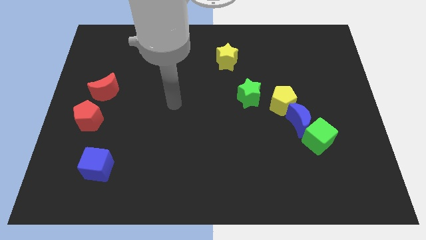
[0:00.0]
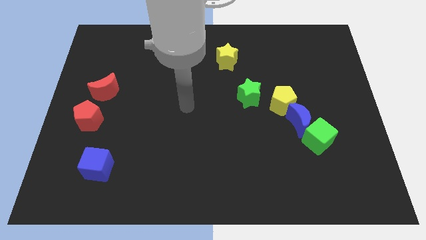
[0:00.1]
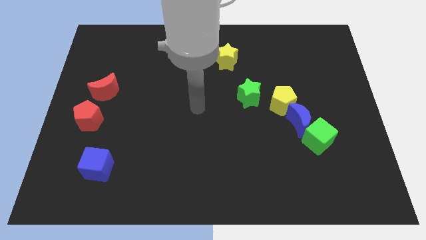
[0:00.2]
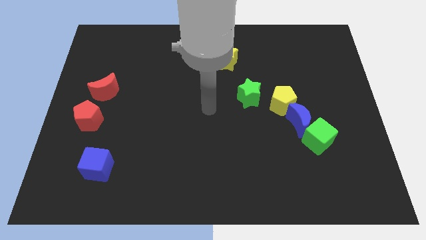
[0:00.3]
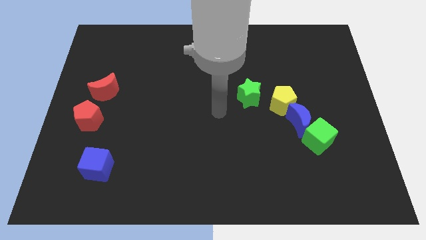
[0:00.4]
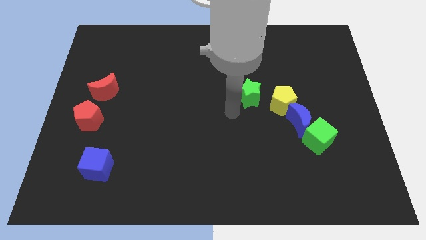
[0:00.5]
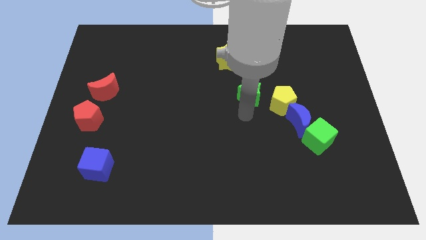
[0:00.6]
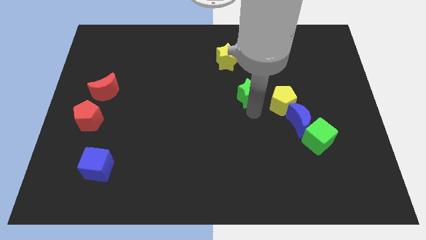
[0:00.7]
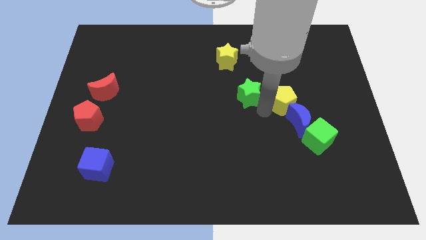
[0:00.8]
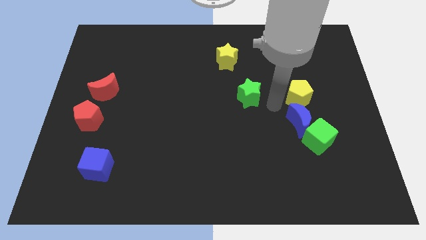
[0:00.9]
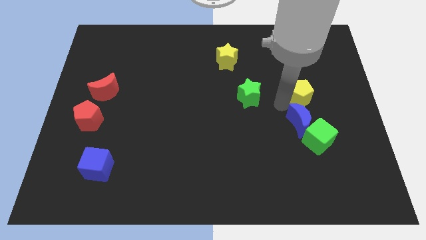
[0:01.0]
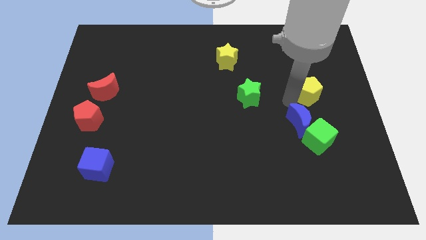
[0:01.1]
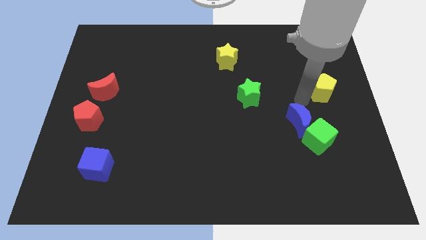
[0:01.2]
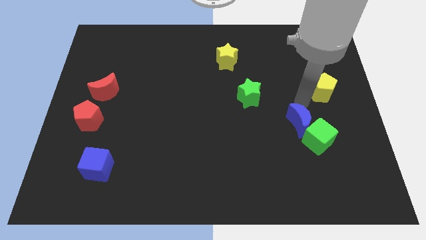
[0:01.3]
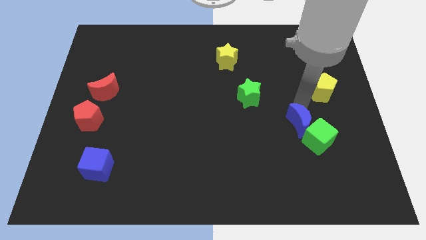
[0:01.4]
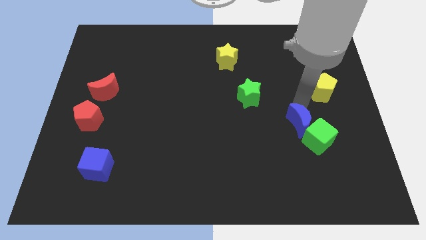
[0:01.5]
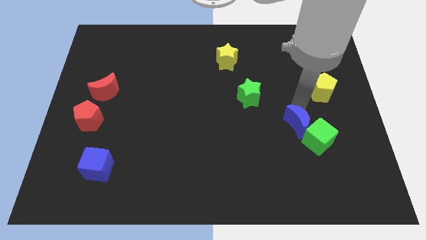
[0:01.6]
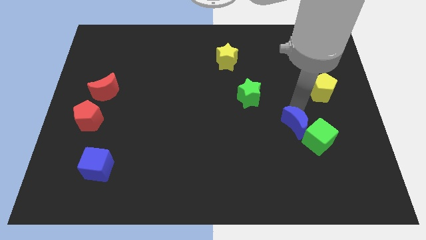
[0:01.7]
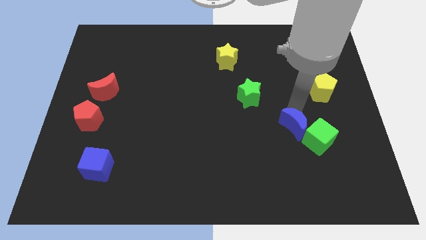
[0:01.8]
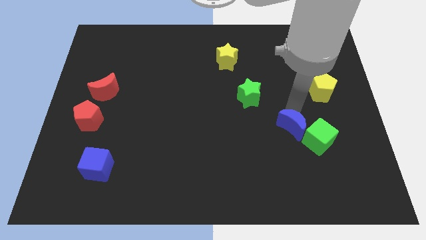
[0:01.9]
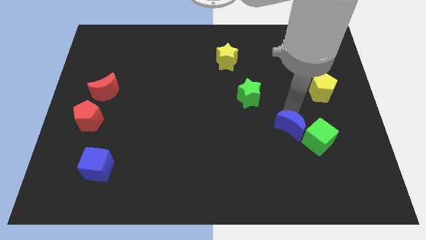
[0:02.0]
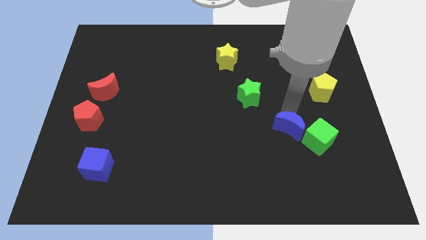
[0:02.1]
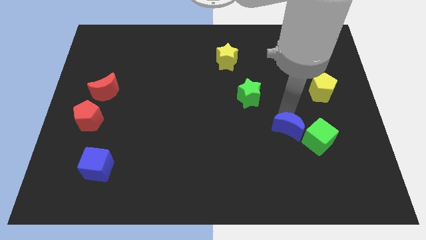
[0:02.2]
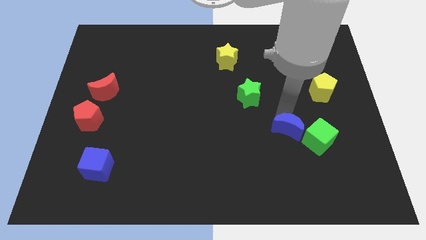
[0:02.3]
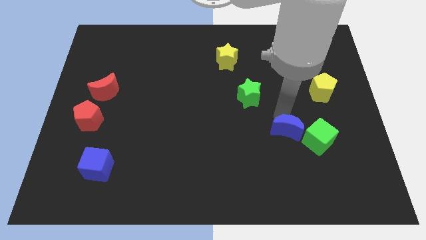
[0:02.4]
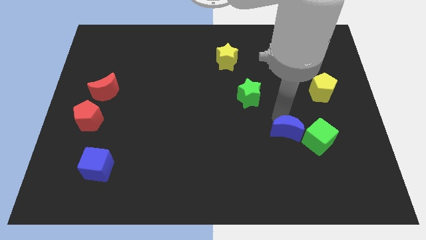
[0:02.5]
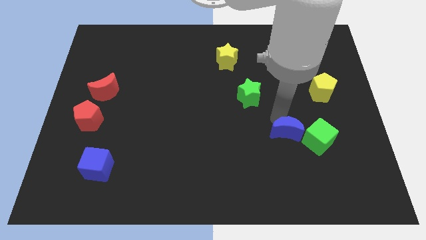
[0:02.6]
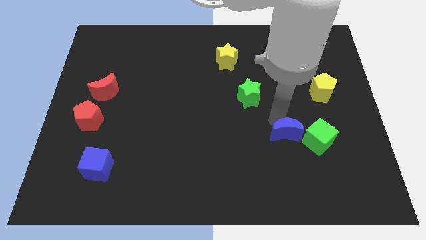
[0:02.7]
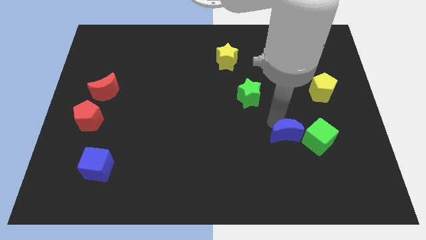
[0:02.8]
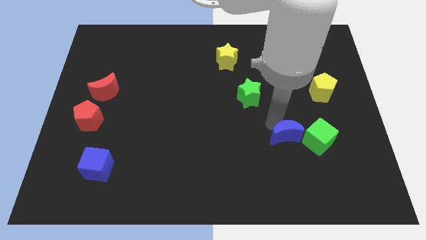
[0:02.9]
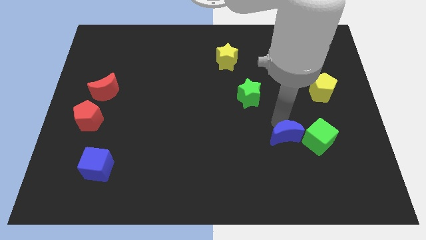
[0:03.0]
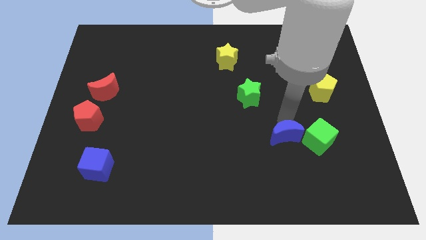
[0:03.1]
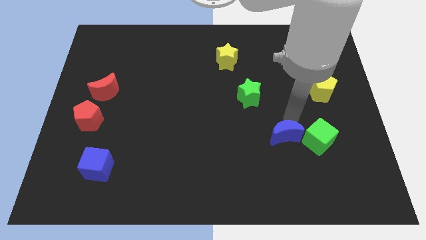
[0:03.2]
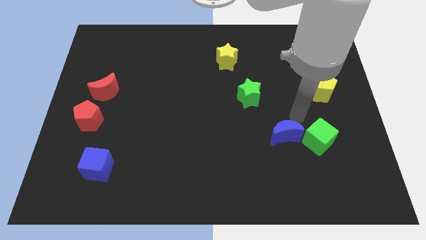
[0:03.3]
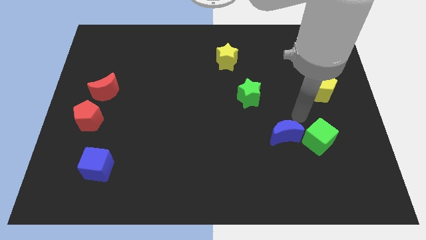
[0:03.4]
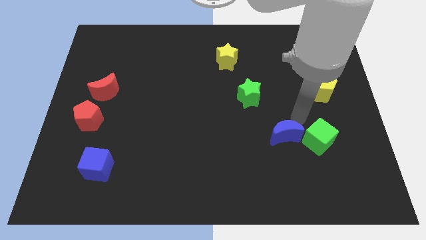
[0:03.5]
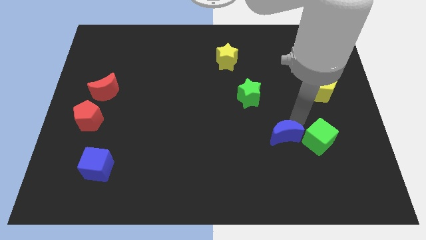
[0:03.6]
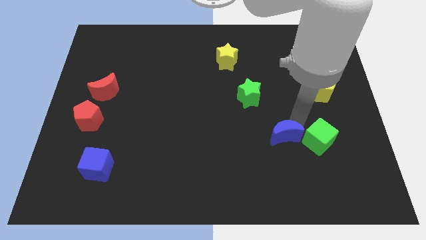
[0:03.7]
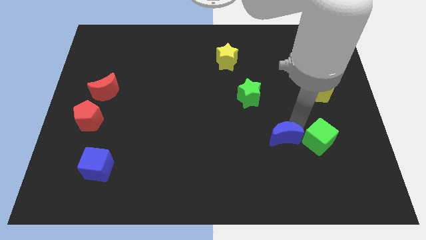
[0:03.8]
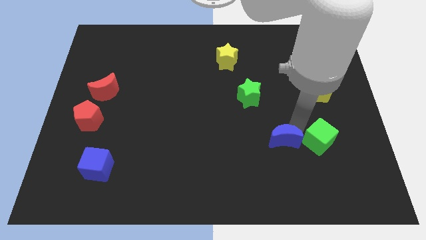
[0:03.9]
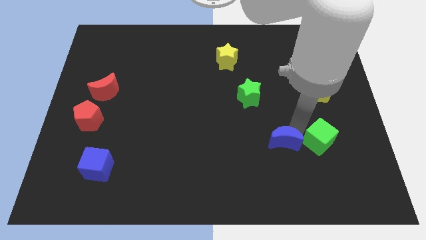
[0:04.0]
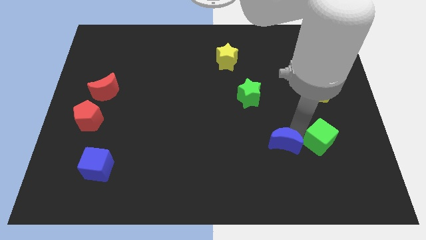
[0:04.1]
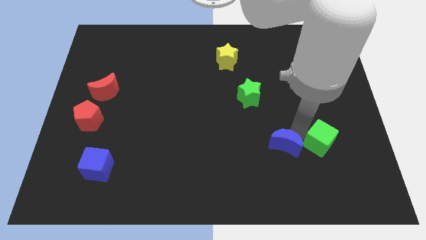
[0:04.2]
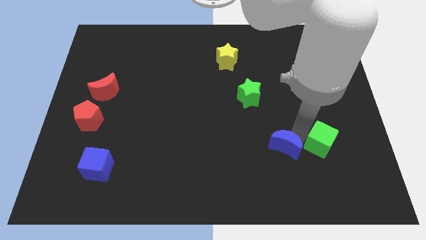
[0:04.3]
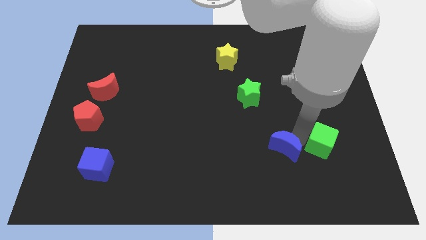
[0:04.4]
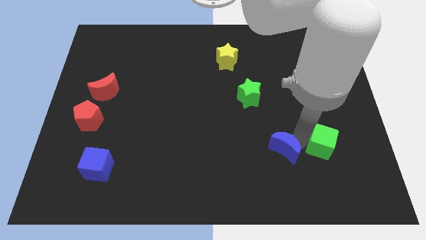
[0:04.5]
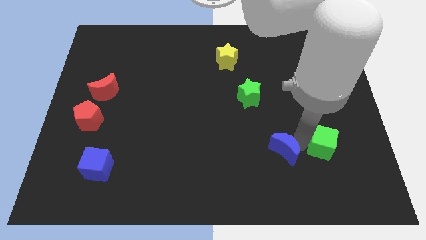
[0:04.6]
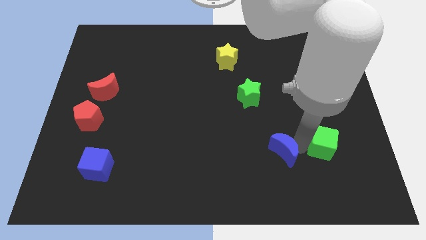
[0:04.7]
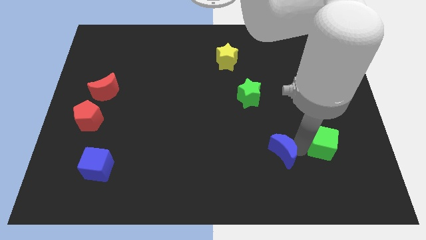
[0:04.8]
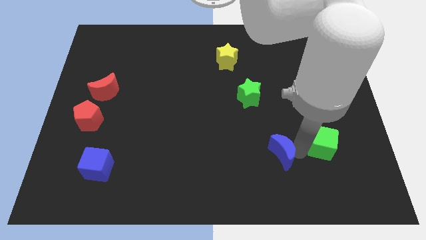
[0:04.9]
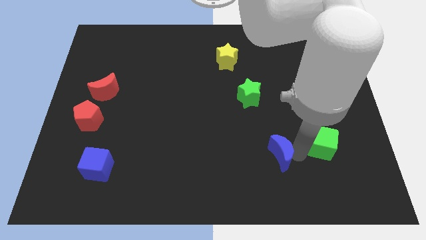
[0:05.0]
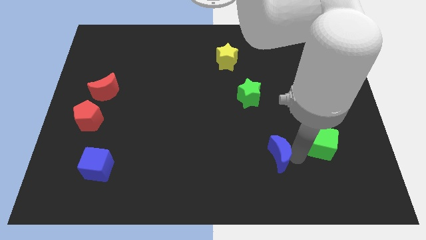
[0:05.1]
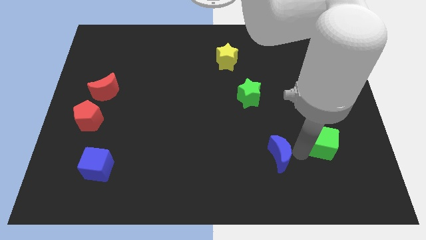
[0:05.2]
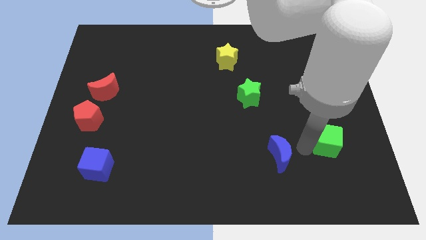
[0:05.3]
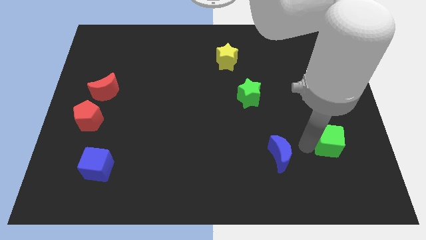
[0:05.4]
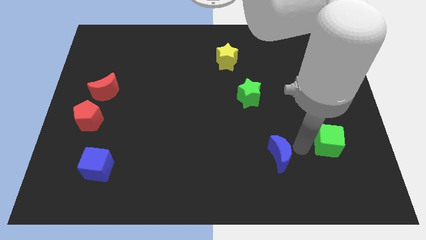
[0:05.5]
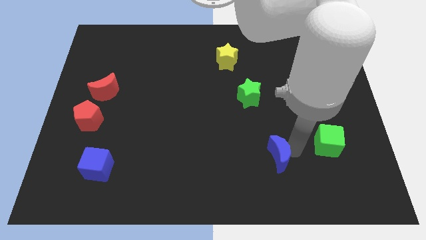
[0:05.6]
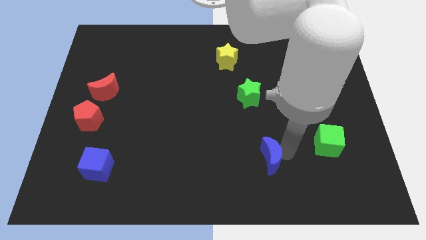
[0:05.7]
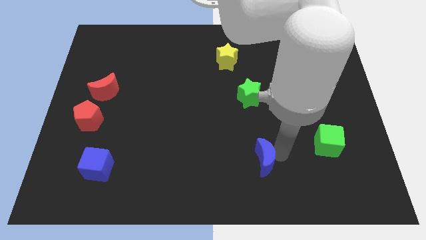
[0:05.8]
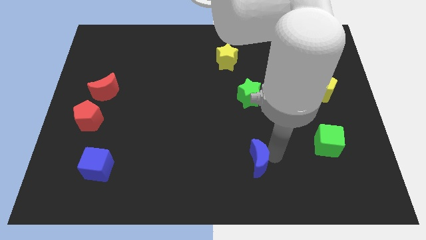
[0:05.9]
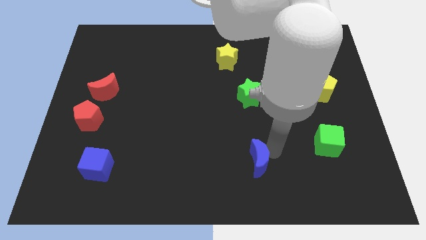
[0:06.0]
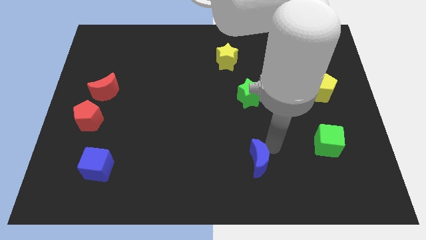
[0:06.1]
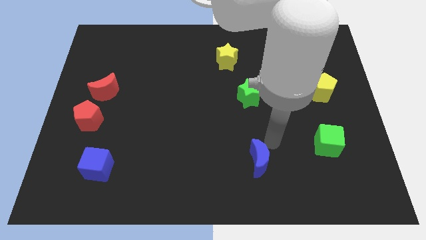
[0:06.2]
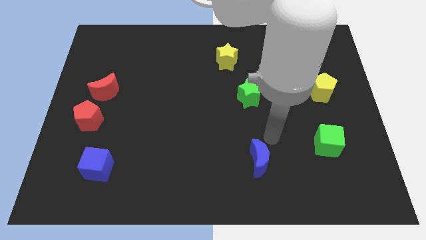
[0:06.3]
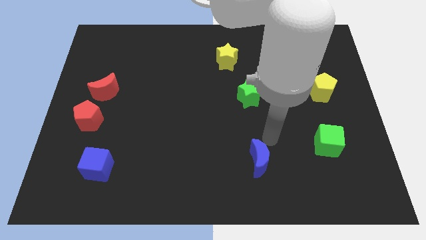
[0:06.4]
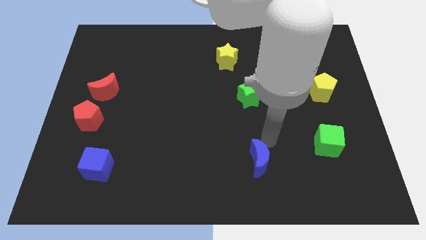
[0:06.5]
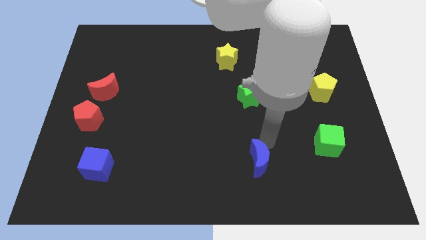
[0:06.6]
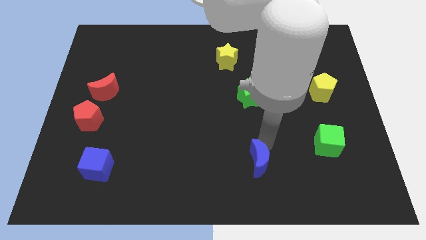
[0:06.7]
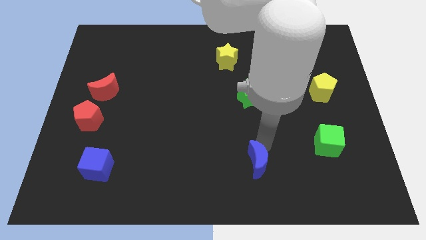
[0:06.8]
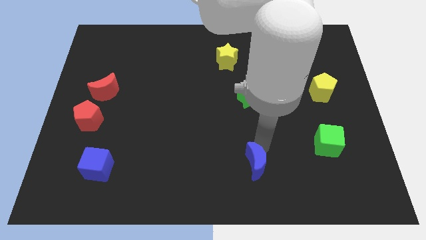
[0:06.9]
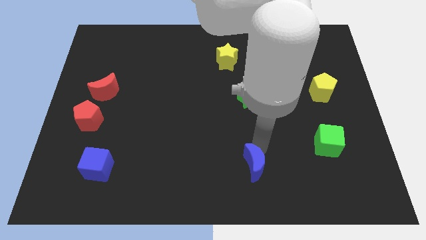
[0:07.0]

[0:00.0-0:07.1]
move the blue moon to the bottom
